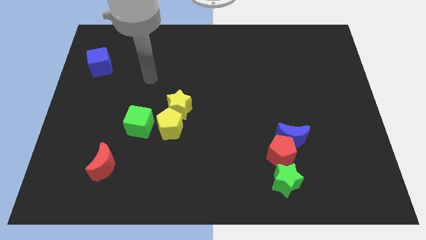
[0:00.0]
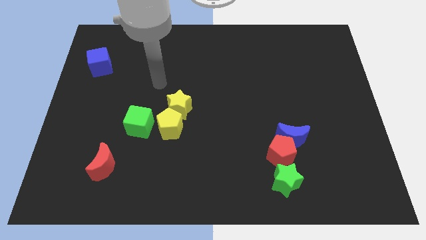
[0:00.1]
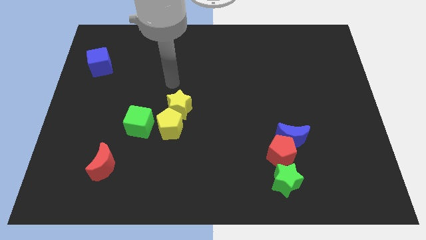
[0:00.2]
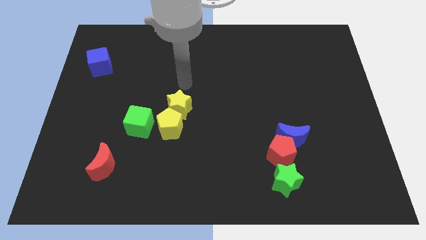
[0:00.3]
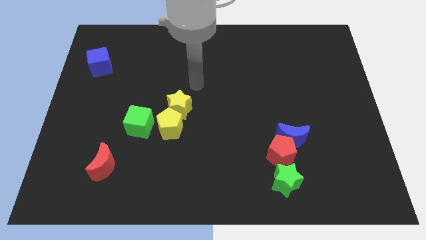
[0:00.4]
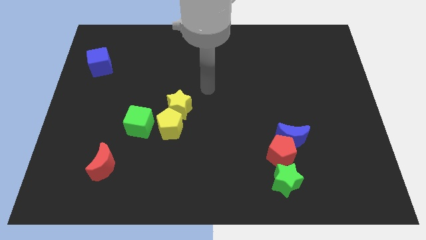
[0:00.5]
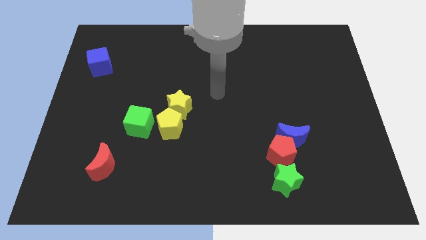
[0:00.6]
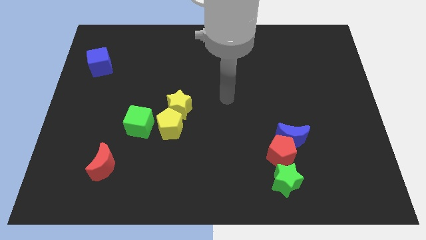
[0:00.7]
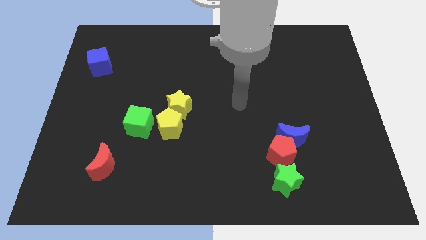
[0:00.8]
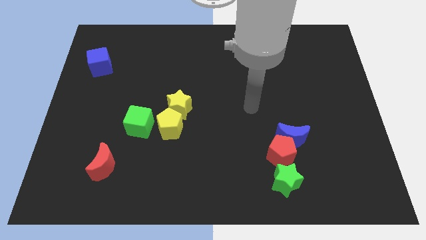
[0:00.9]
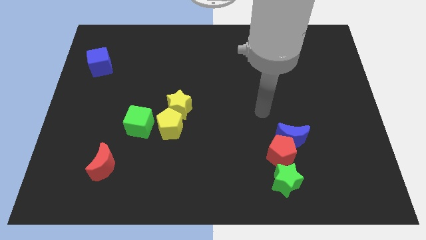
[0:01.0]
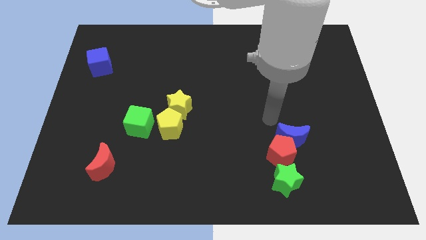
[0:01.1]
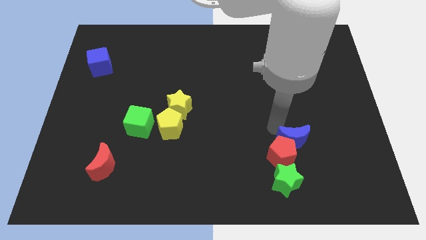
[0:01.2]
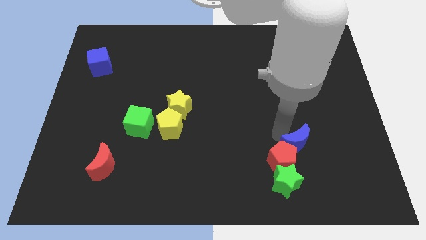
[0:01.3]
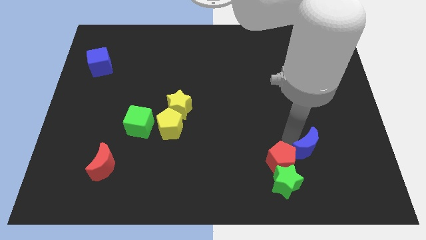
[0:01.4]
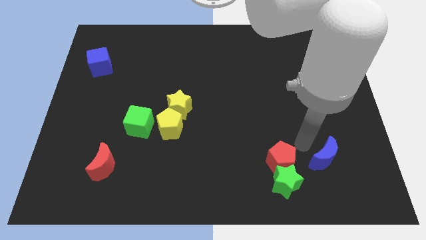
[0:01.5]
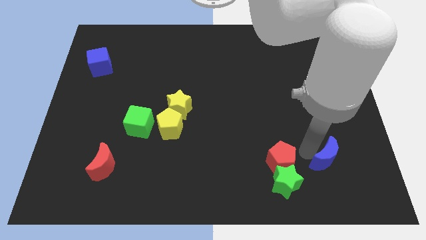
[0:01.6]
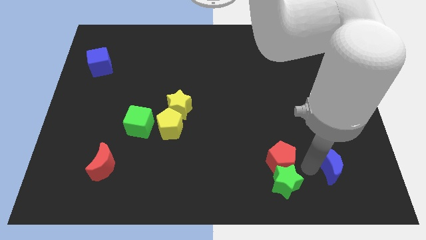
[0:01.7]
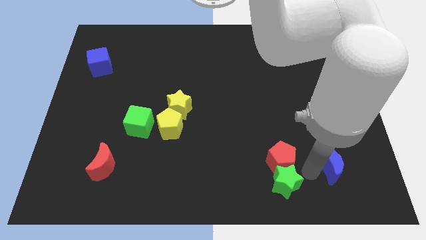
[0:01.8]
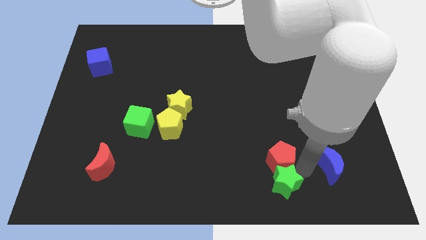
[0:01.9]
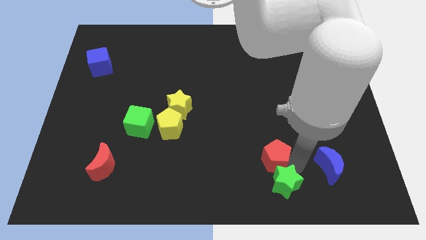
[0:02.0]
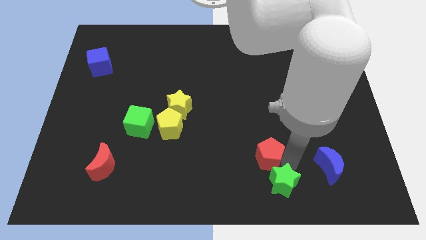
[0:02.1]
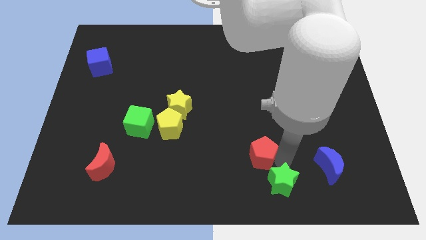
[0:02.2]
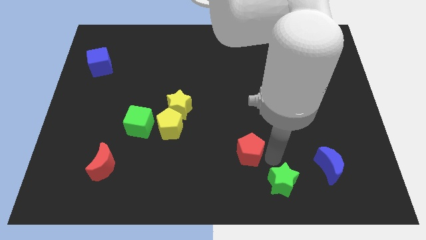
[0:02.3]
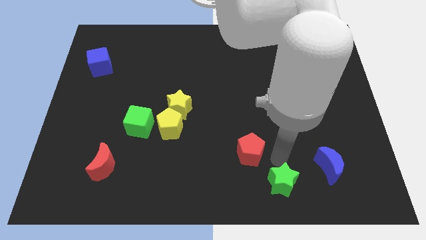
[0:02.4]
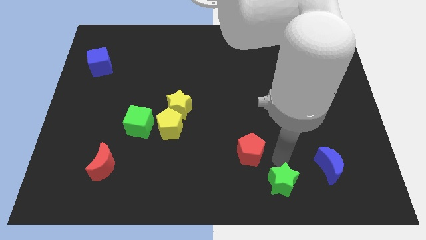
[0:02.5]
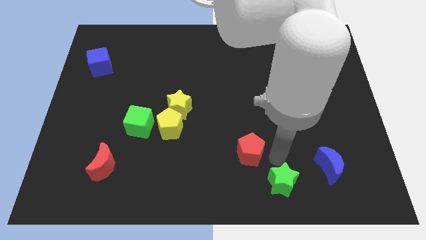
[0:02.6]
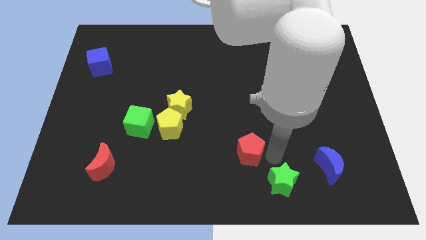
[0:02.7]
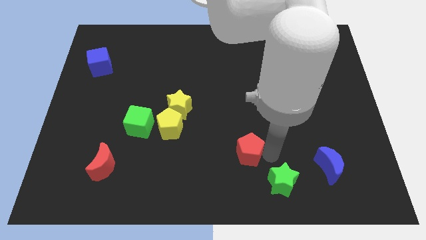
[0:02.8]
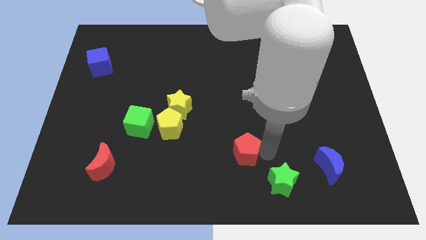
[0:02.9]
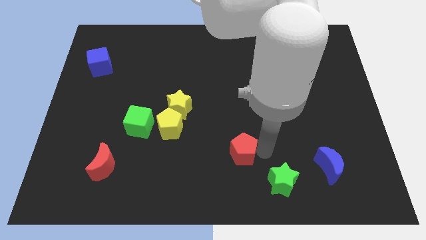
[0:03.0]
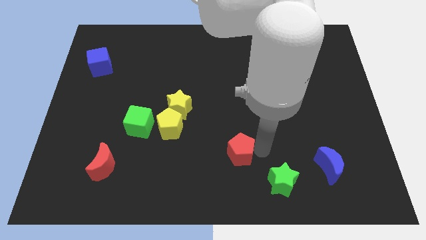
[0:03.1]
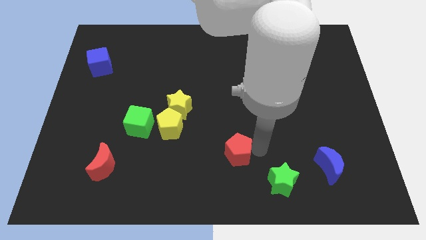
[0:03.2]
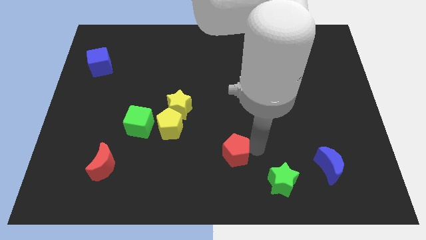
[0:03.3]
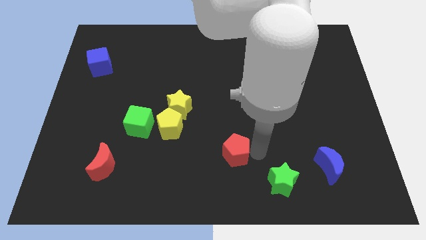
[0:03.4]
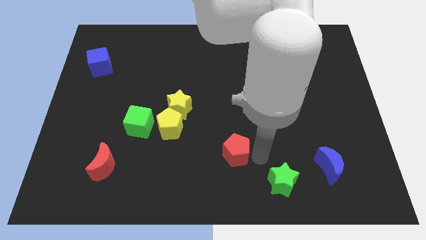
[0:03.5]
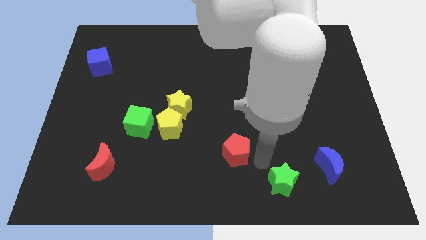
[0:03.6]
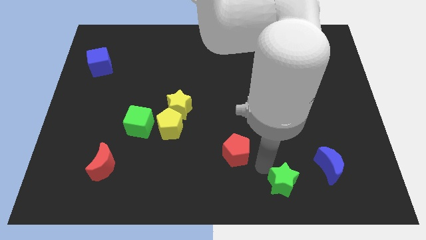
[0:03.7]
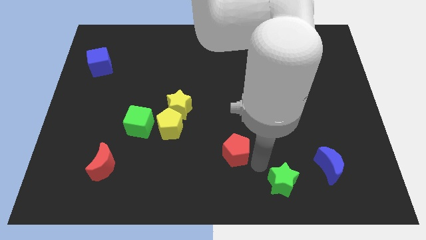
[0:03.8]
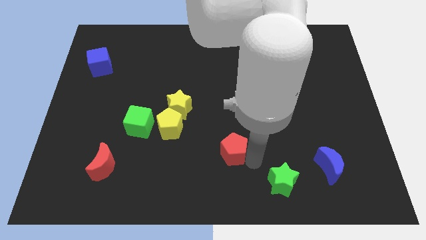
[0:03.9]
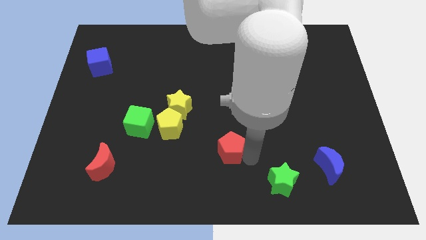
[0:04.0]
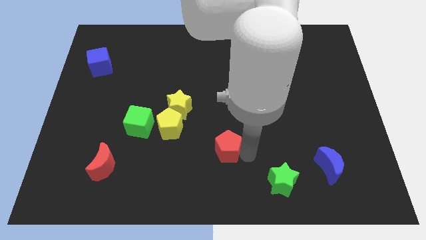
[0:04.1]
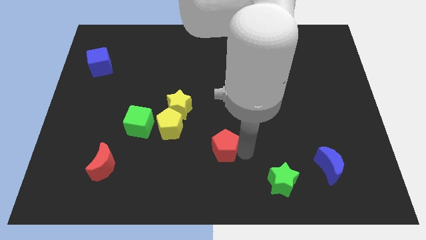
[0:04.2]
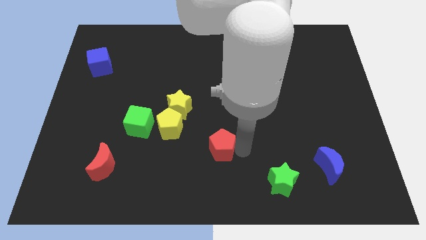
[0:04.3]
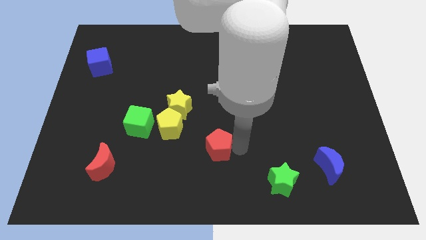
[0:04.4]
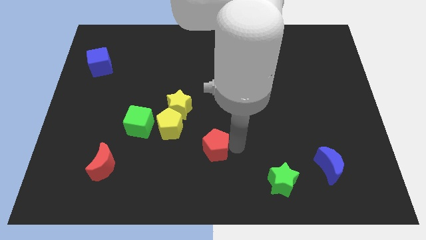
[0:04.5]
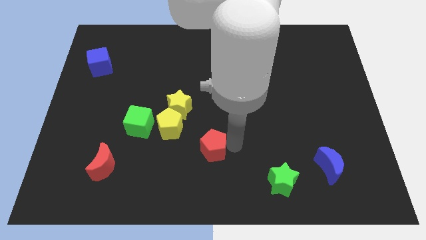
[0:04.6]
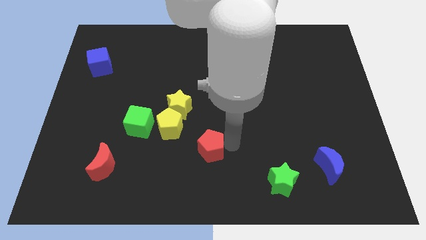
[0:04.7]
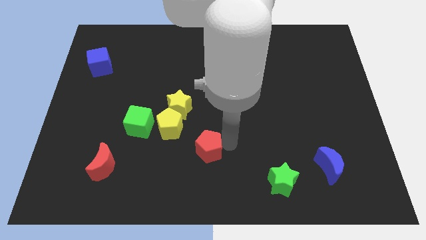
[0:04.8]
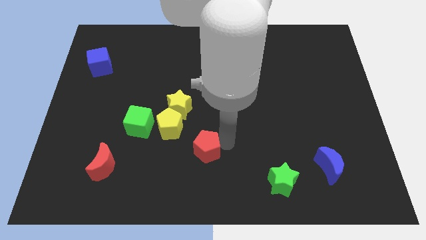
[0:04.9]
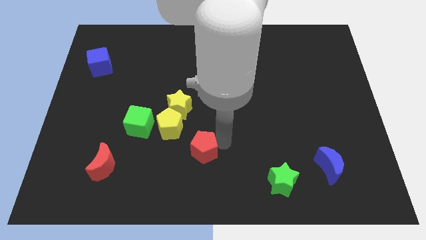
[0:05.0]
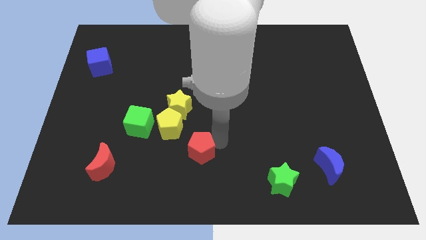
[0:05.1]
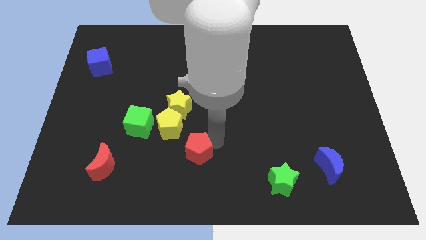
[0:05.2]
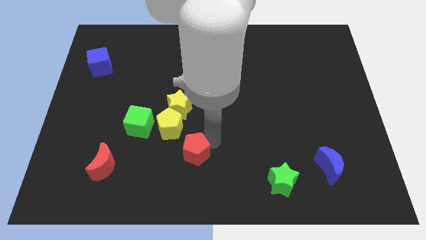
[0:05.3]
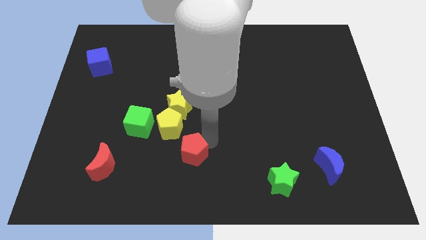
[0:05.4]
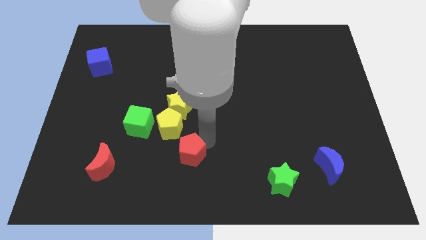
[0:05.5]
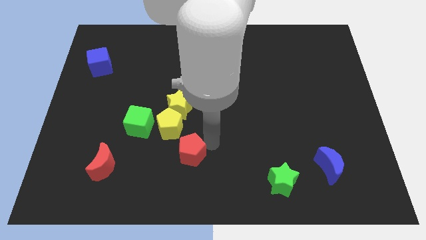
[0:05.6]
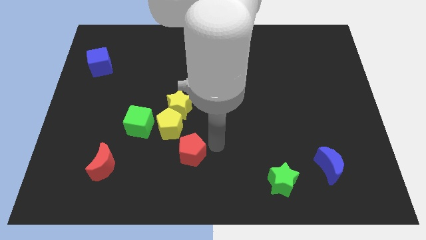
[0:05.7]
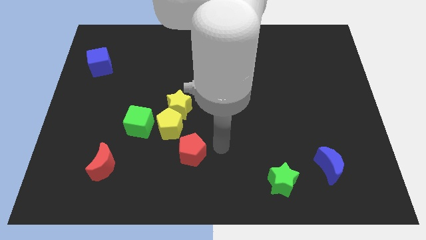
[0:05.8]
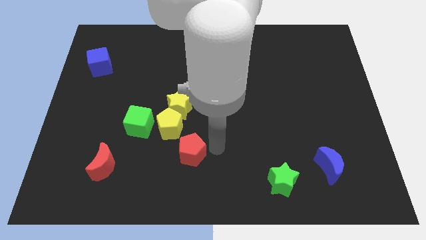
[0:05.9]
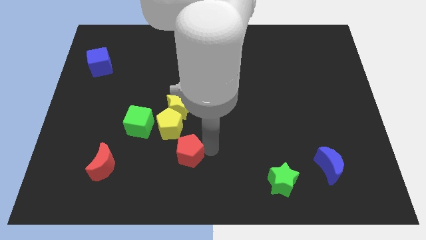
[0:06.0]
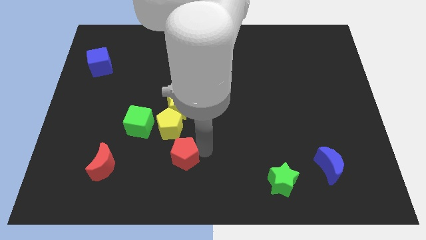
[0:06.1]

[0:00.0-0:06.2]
move the red pentagon to the left

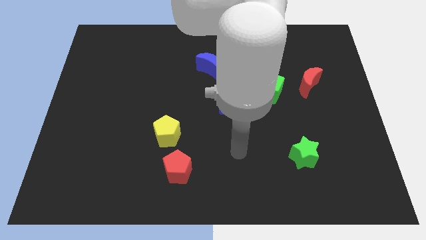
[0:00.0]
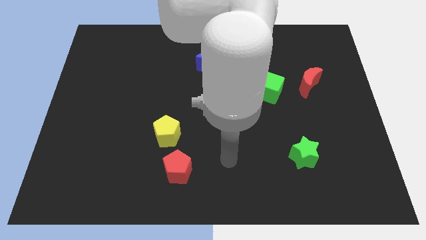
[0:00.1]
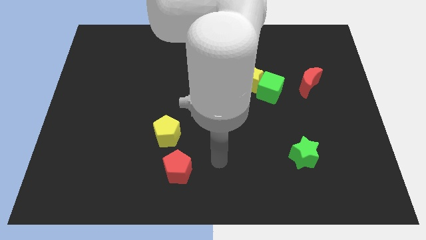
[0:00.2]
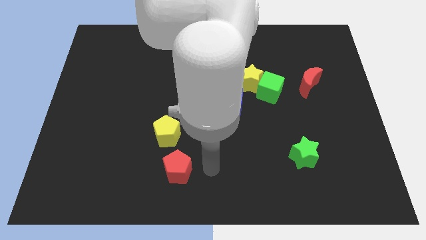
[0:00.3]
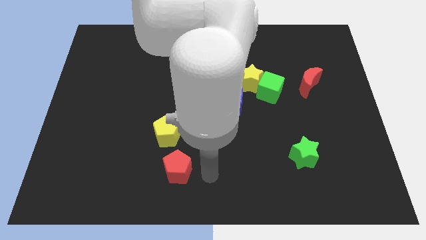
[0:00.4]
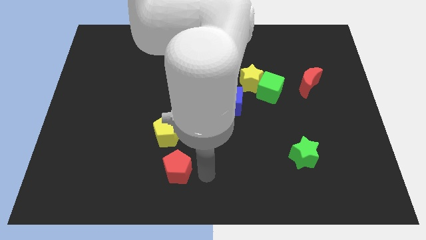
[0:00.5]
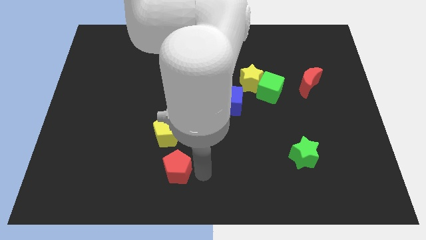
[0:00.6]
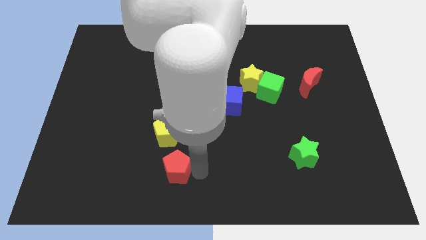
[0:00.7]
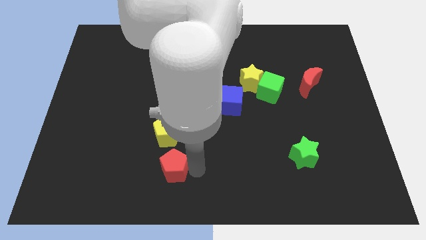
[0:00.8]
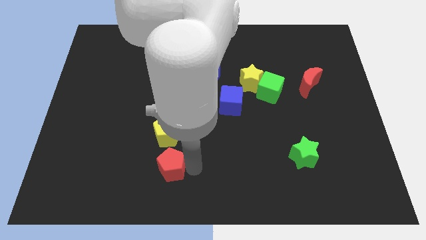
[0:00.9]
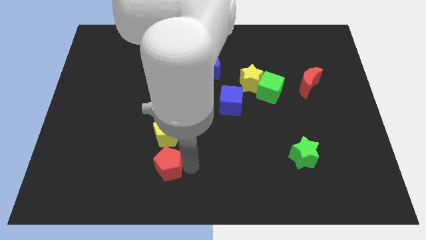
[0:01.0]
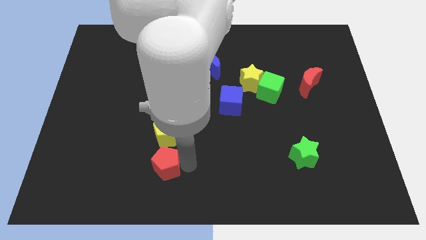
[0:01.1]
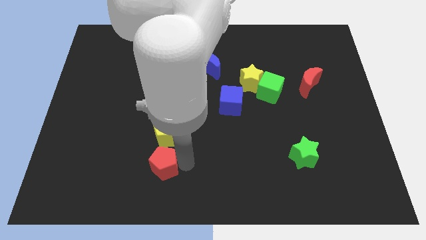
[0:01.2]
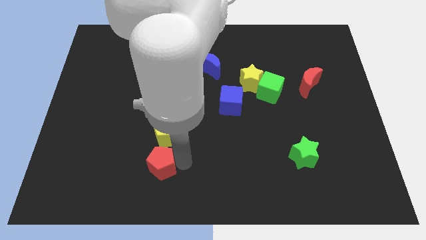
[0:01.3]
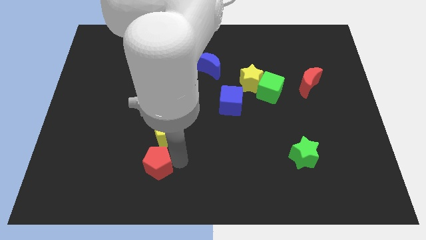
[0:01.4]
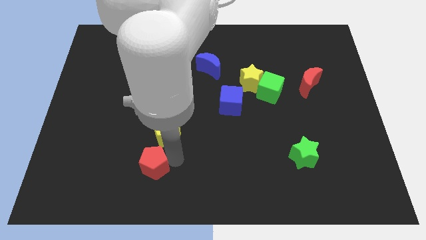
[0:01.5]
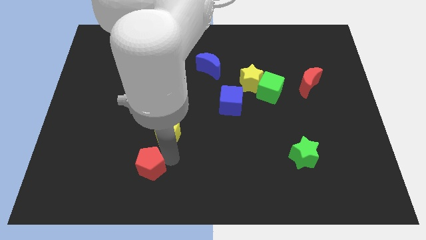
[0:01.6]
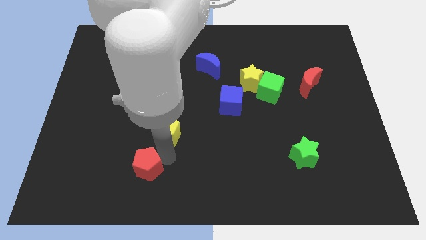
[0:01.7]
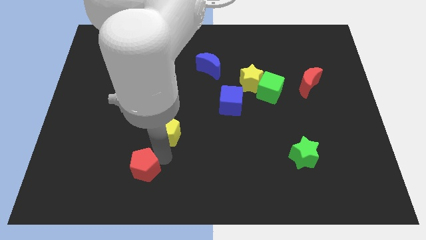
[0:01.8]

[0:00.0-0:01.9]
slide the red pentagon slightly left
